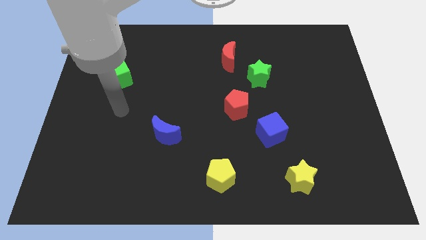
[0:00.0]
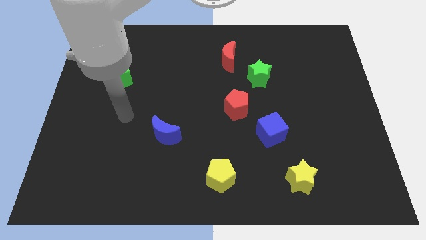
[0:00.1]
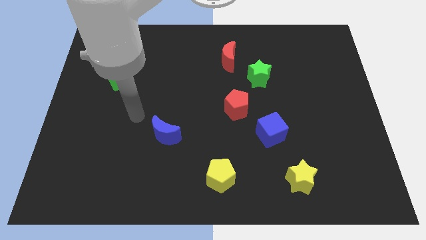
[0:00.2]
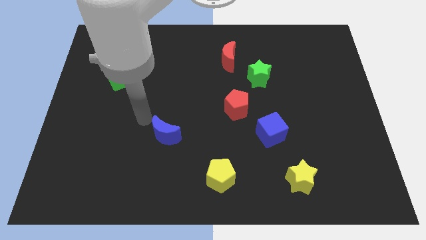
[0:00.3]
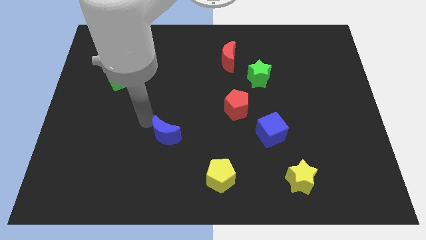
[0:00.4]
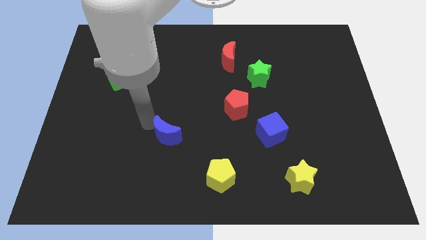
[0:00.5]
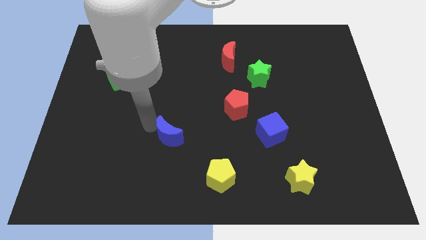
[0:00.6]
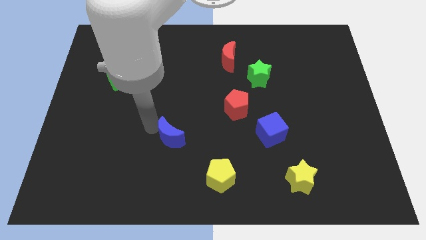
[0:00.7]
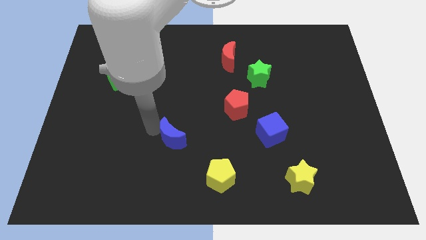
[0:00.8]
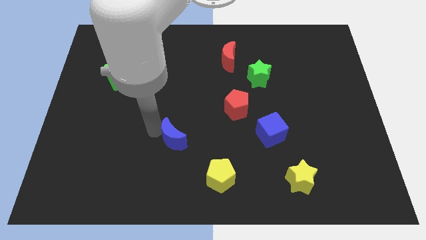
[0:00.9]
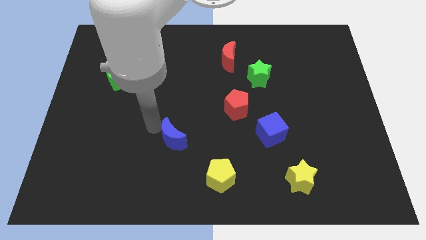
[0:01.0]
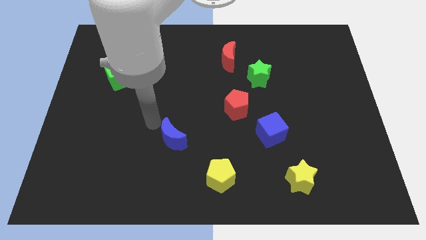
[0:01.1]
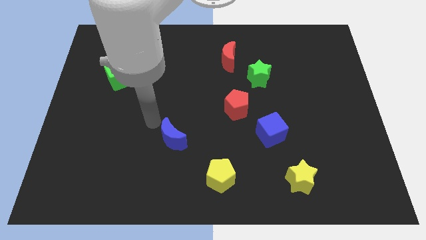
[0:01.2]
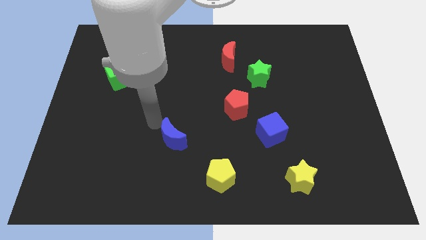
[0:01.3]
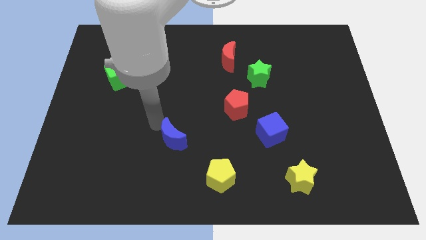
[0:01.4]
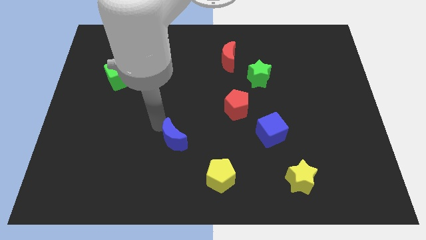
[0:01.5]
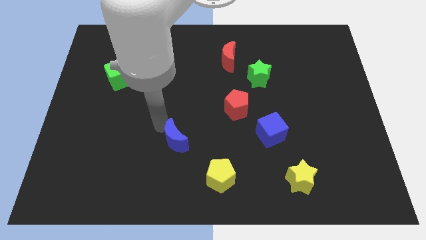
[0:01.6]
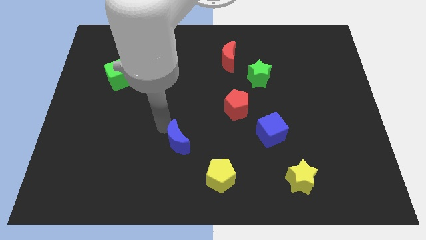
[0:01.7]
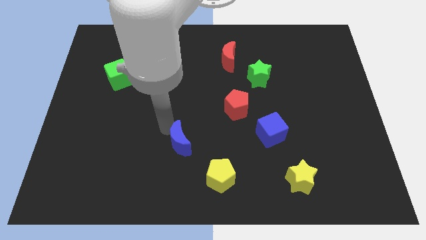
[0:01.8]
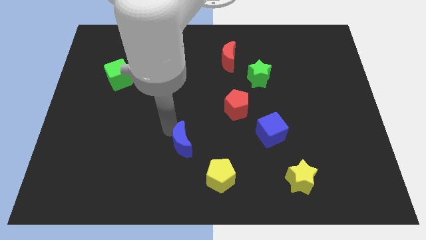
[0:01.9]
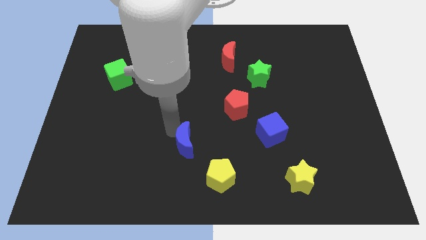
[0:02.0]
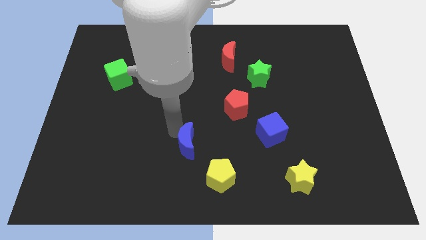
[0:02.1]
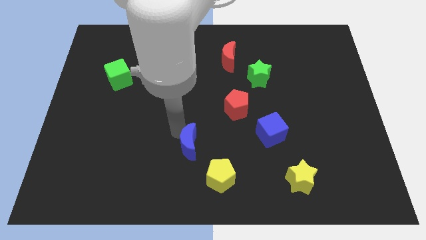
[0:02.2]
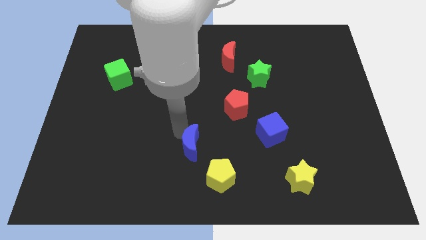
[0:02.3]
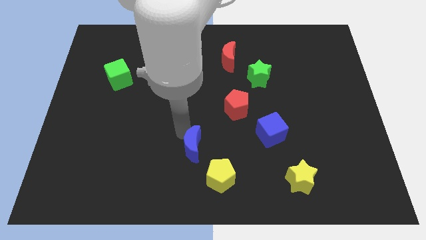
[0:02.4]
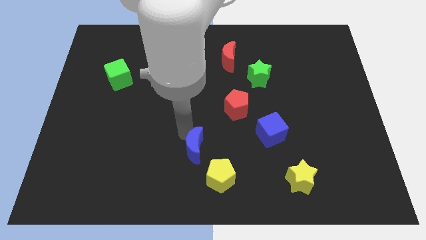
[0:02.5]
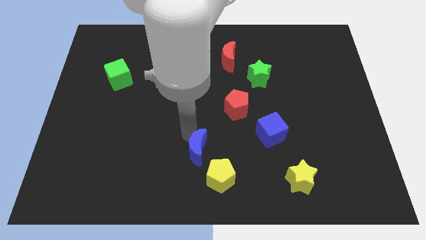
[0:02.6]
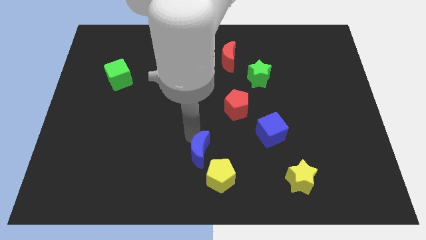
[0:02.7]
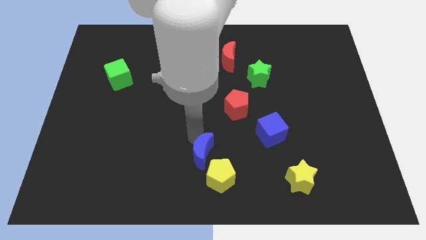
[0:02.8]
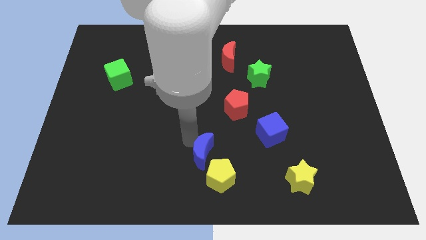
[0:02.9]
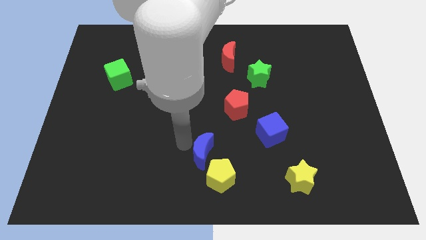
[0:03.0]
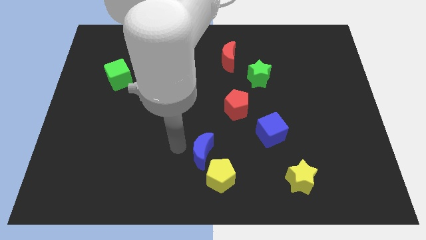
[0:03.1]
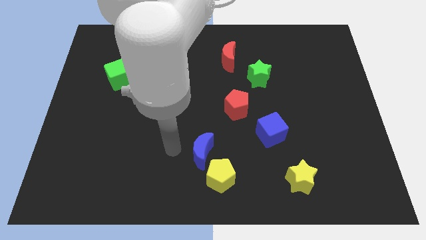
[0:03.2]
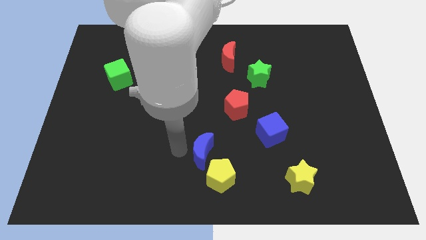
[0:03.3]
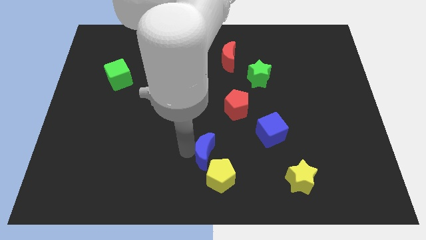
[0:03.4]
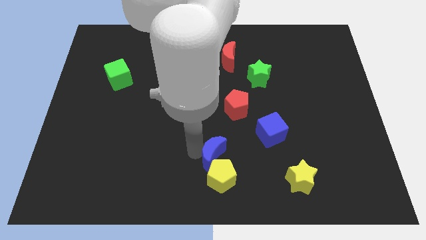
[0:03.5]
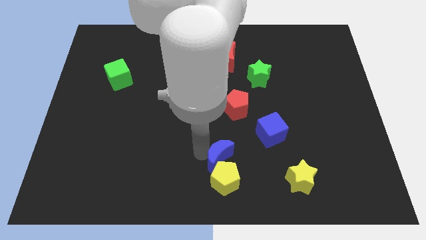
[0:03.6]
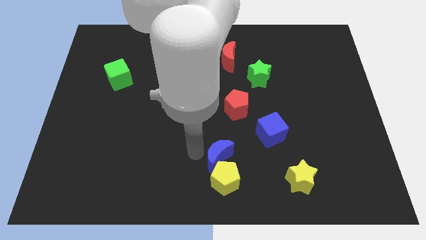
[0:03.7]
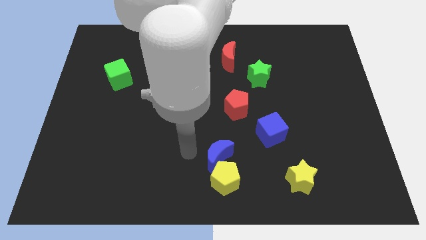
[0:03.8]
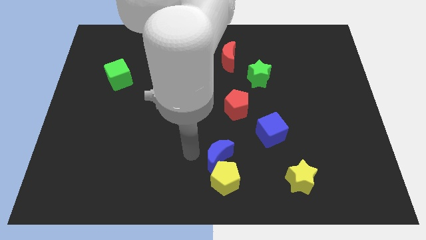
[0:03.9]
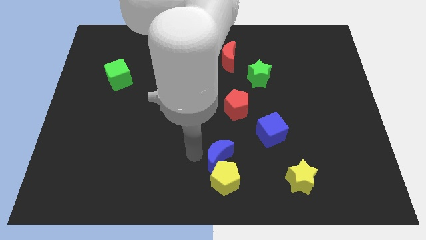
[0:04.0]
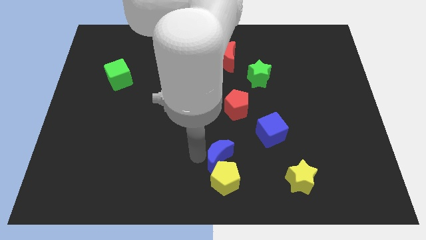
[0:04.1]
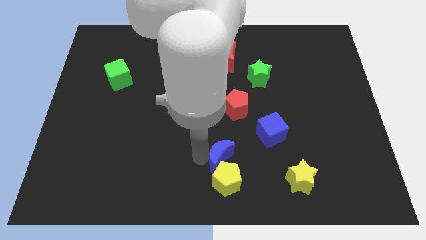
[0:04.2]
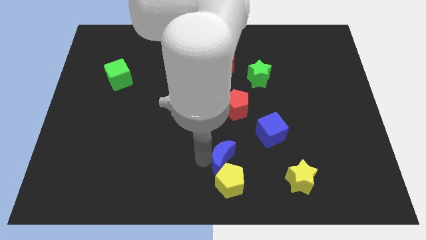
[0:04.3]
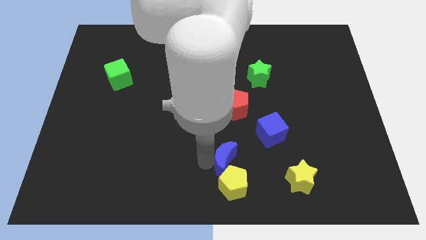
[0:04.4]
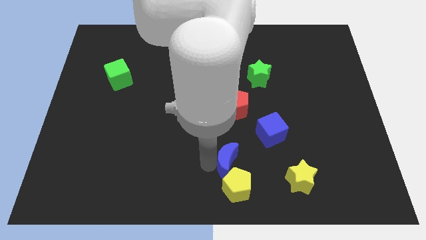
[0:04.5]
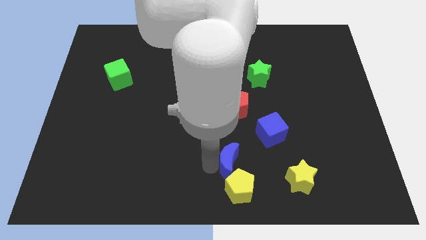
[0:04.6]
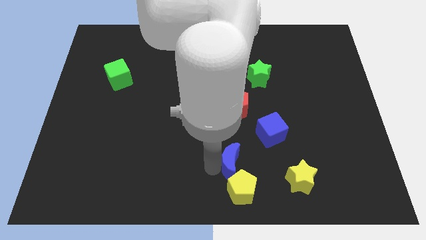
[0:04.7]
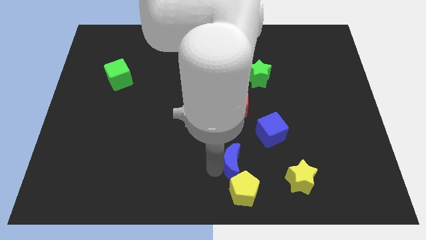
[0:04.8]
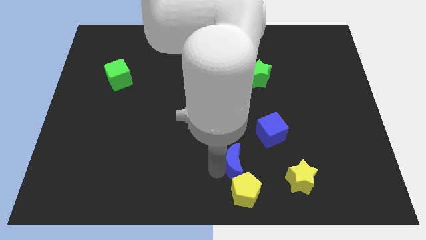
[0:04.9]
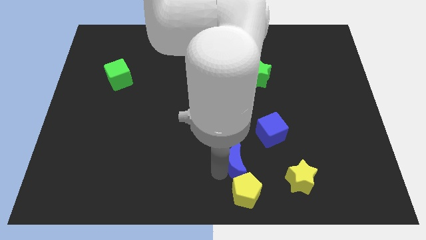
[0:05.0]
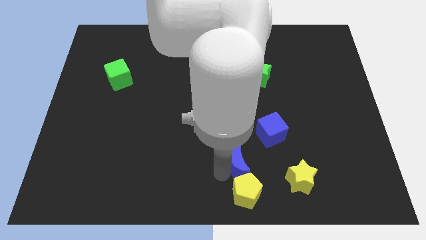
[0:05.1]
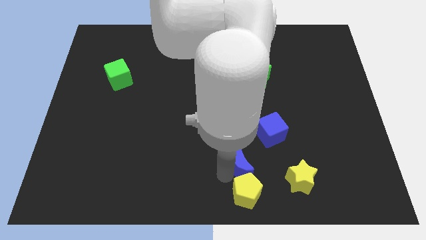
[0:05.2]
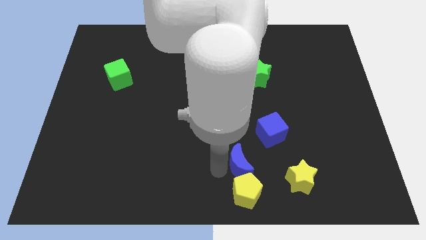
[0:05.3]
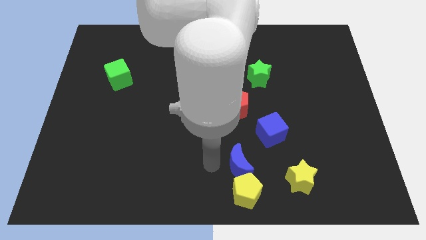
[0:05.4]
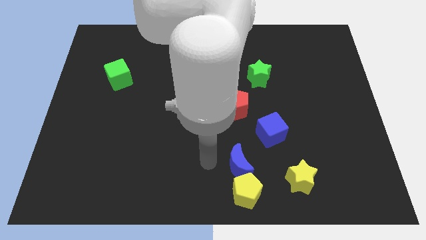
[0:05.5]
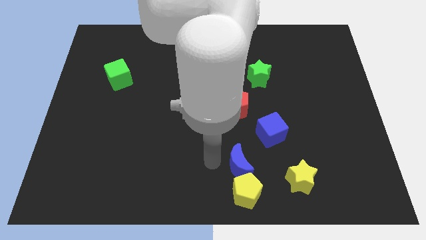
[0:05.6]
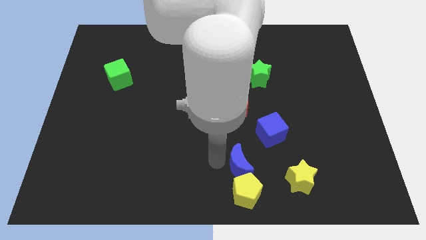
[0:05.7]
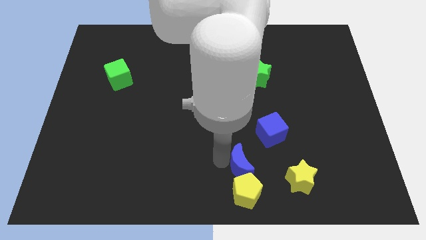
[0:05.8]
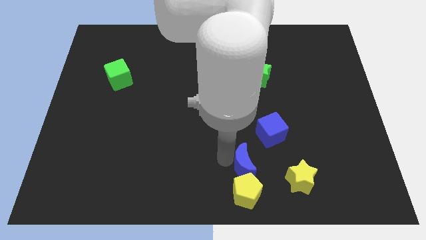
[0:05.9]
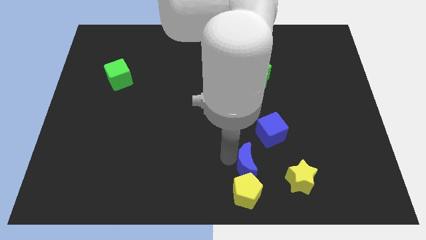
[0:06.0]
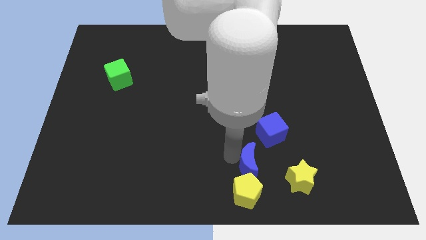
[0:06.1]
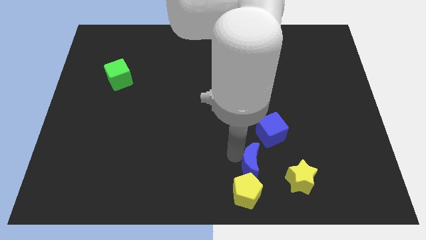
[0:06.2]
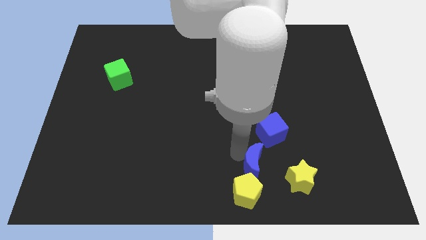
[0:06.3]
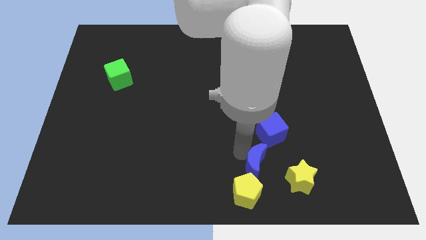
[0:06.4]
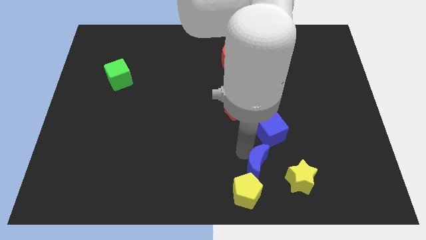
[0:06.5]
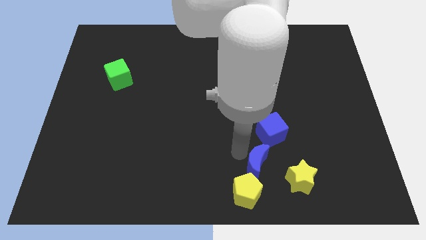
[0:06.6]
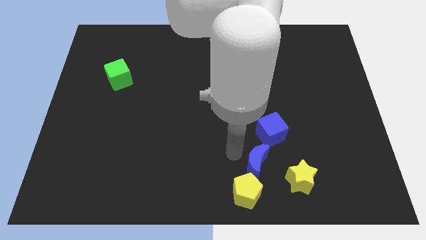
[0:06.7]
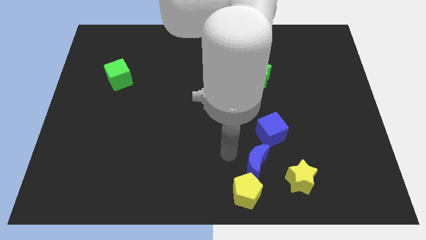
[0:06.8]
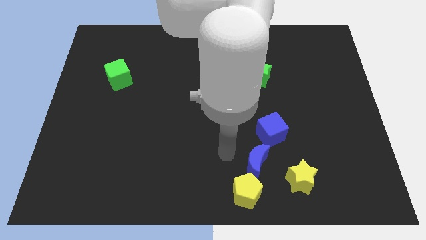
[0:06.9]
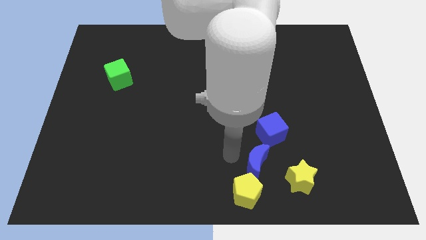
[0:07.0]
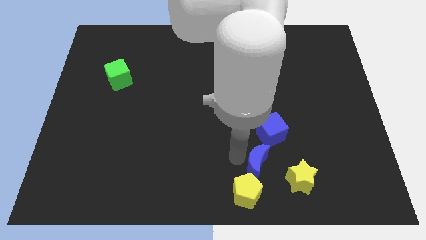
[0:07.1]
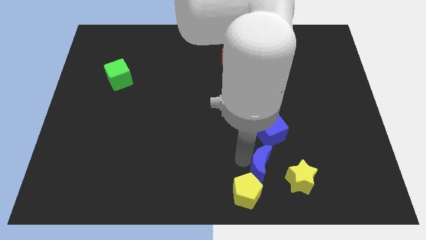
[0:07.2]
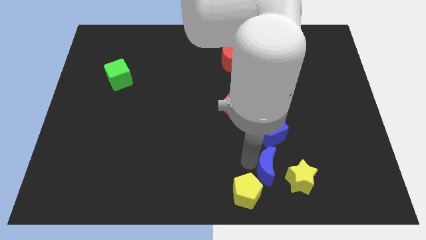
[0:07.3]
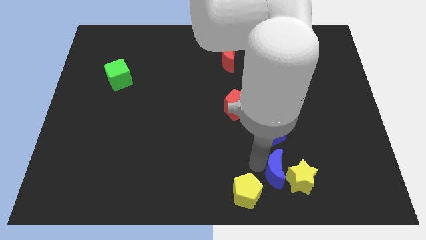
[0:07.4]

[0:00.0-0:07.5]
push the blue moon towards the yellow star

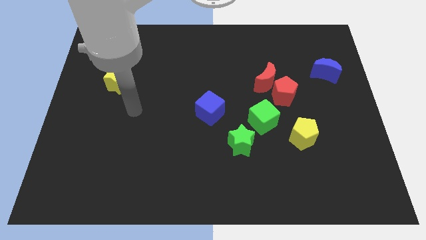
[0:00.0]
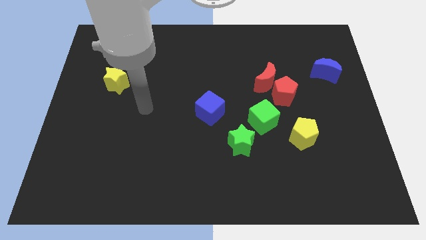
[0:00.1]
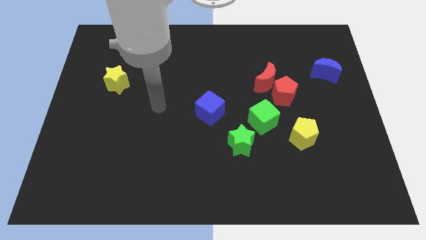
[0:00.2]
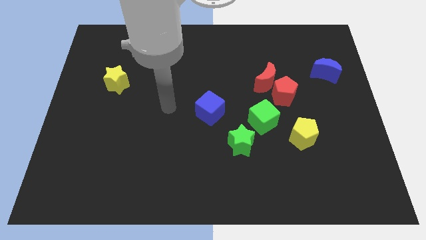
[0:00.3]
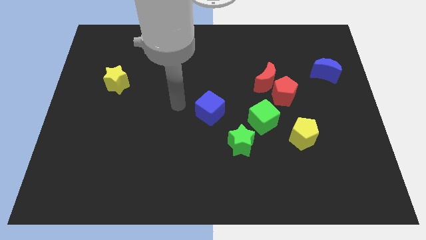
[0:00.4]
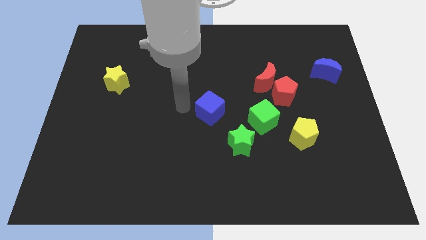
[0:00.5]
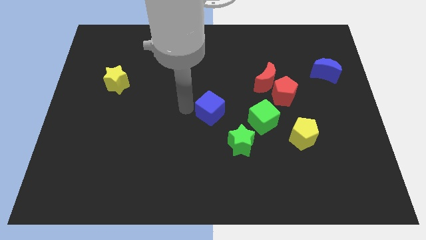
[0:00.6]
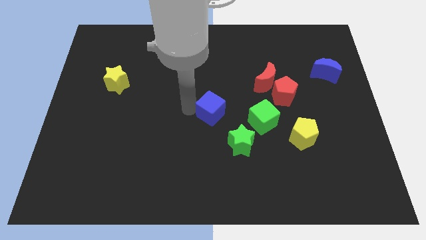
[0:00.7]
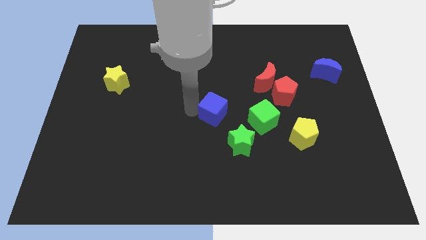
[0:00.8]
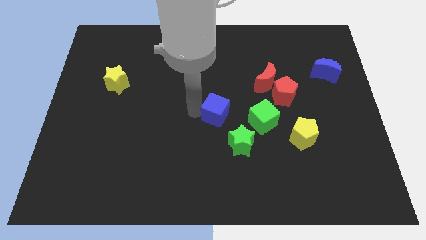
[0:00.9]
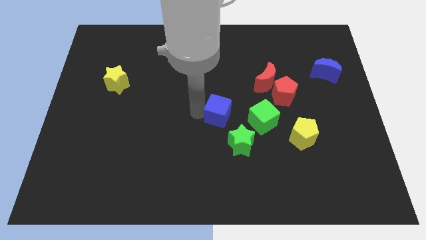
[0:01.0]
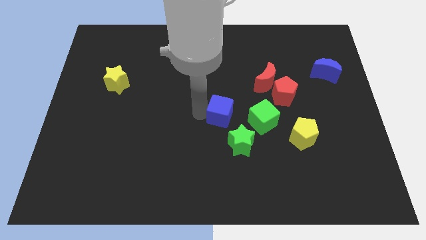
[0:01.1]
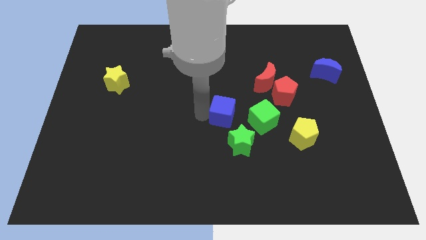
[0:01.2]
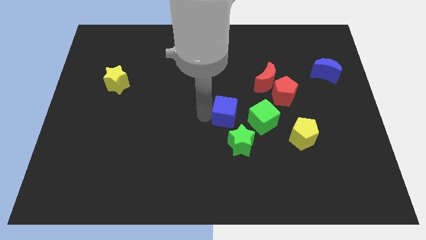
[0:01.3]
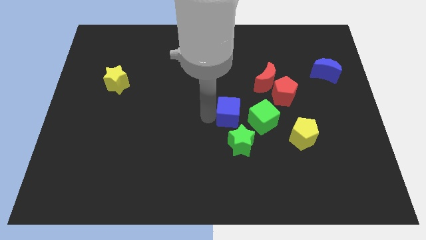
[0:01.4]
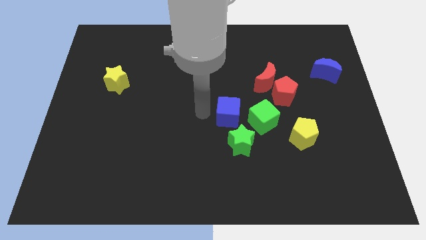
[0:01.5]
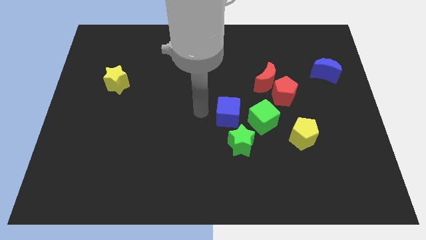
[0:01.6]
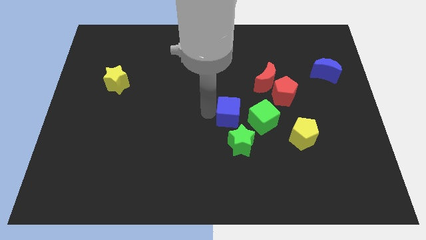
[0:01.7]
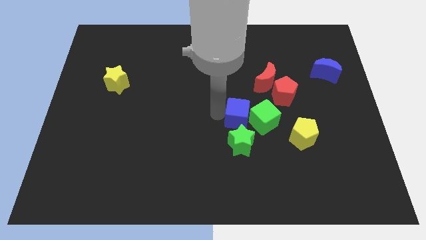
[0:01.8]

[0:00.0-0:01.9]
push the blue cube close to the green cube
